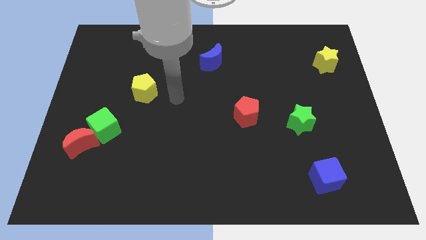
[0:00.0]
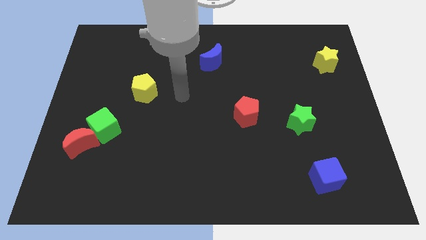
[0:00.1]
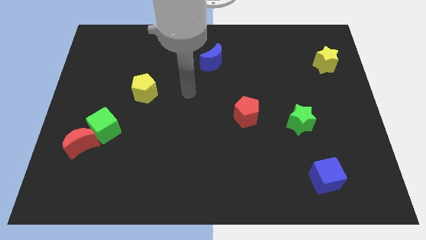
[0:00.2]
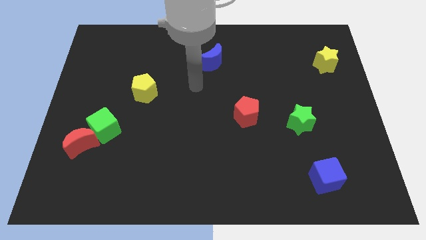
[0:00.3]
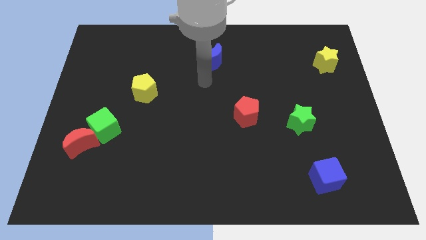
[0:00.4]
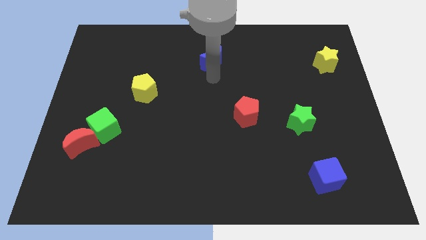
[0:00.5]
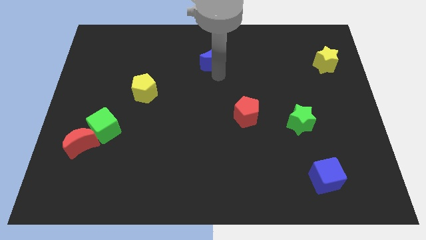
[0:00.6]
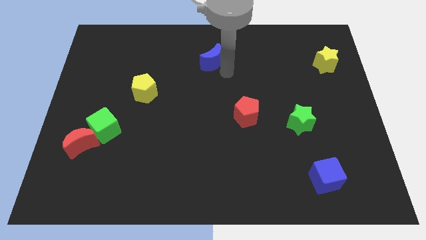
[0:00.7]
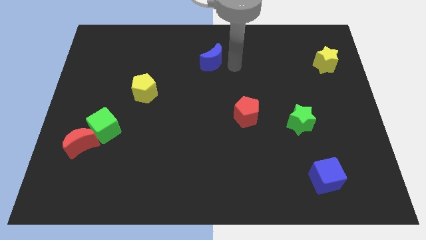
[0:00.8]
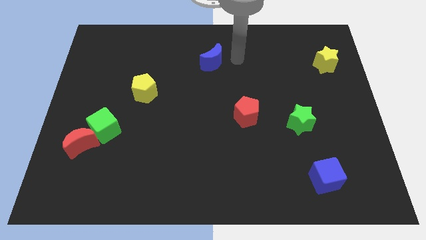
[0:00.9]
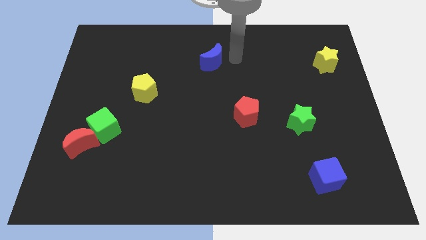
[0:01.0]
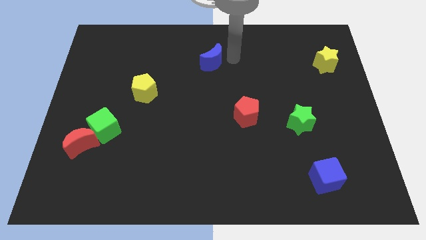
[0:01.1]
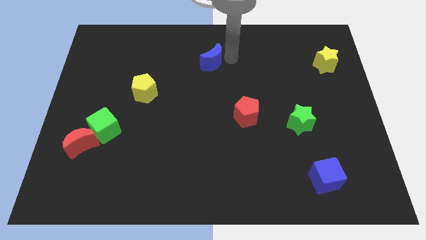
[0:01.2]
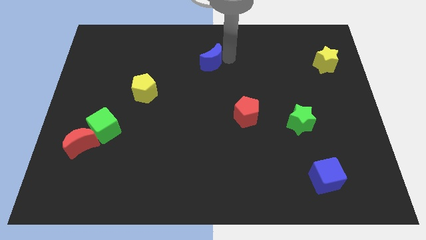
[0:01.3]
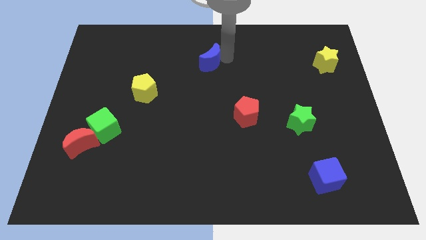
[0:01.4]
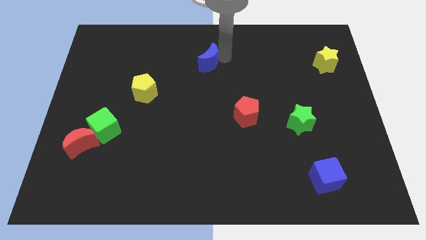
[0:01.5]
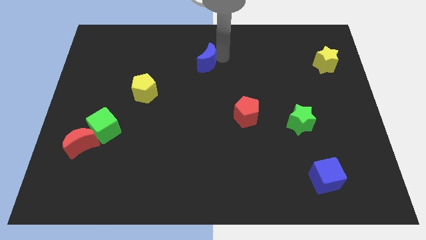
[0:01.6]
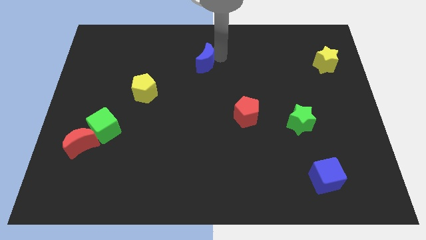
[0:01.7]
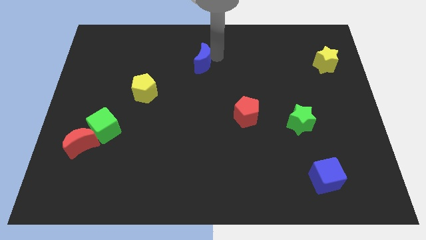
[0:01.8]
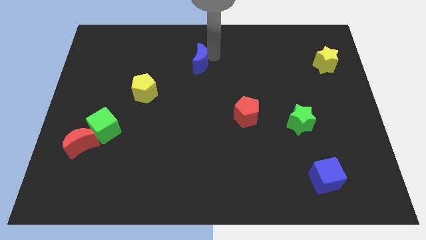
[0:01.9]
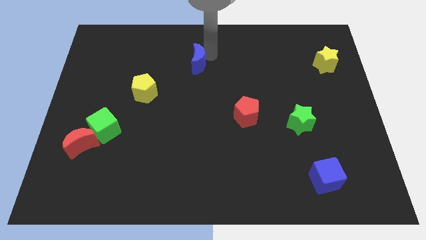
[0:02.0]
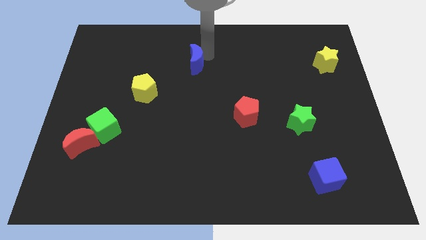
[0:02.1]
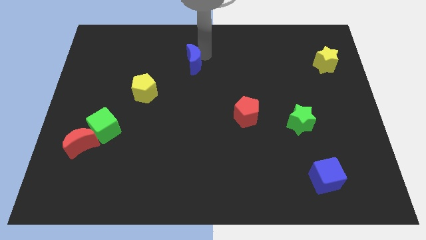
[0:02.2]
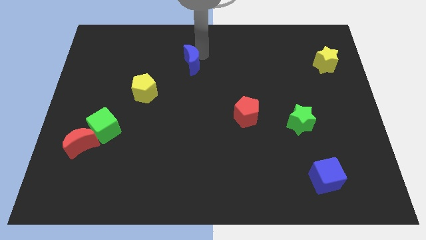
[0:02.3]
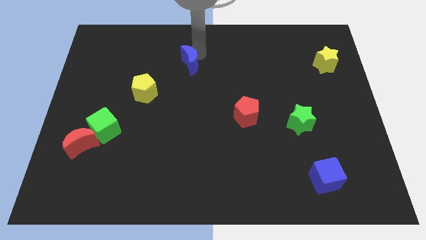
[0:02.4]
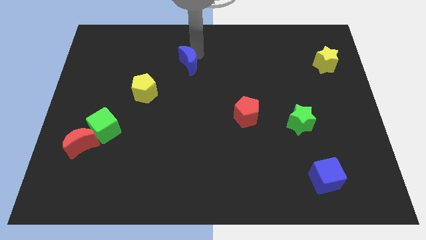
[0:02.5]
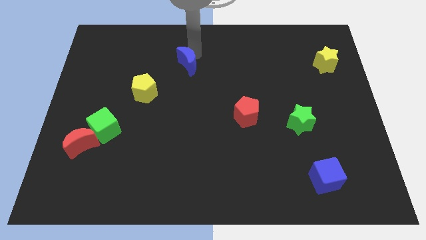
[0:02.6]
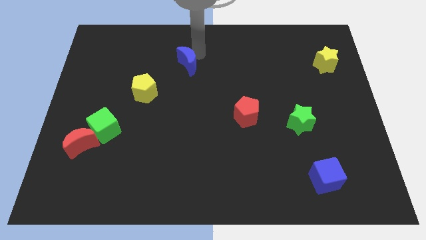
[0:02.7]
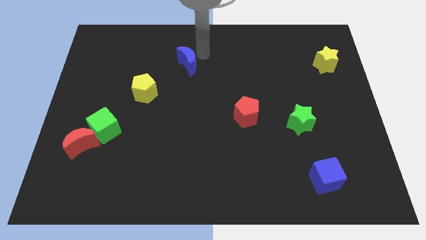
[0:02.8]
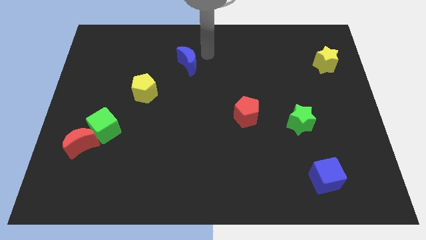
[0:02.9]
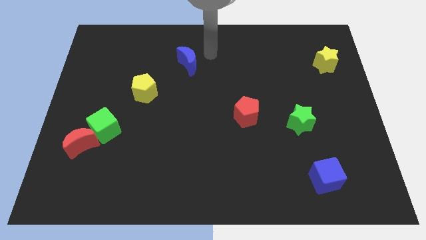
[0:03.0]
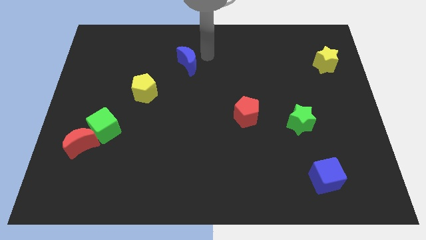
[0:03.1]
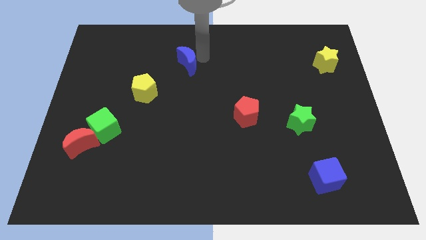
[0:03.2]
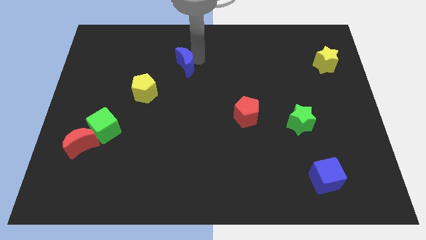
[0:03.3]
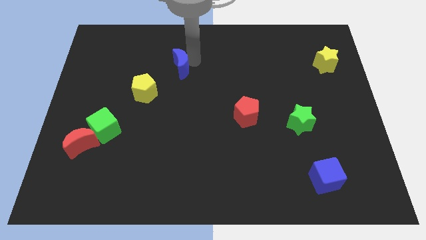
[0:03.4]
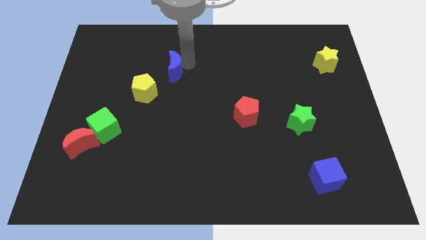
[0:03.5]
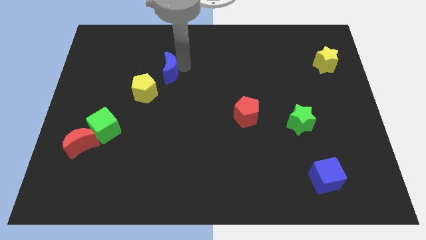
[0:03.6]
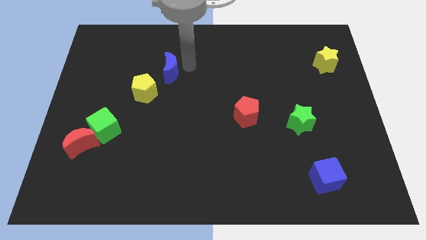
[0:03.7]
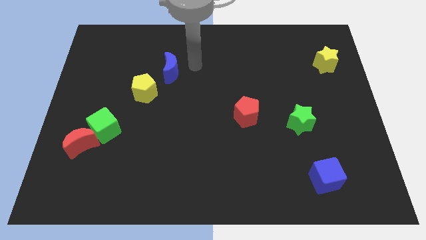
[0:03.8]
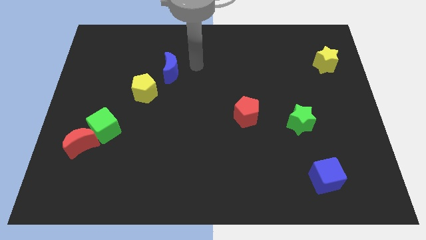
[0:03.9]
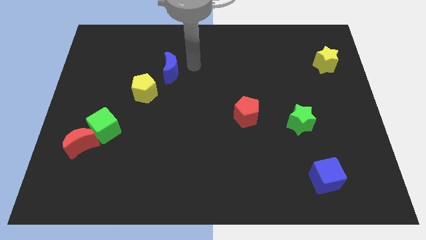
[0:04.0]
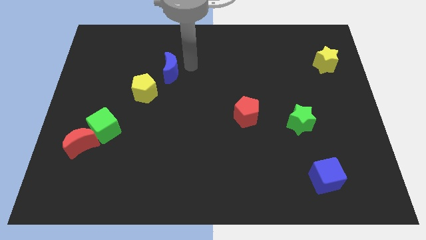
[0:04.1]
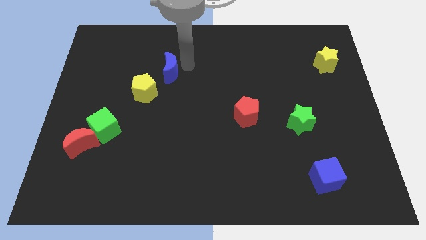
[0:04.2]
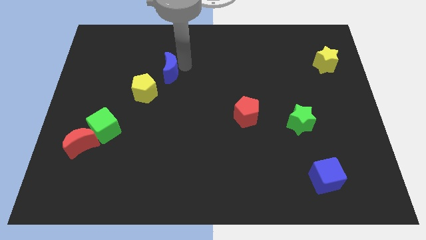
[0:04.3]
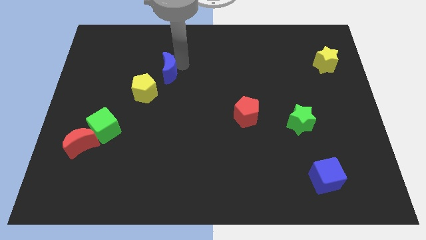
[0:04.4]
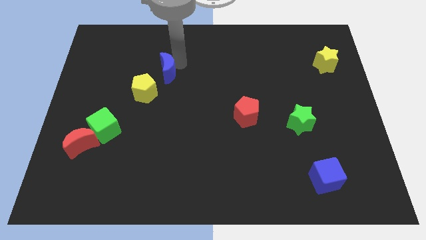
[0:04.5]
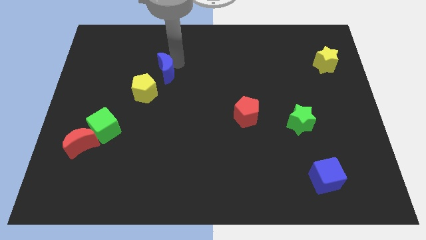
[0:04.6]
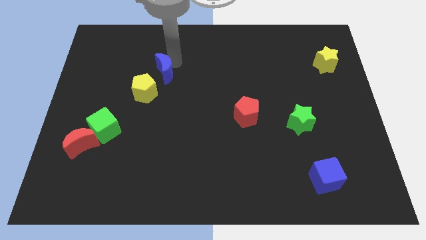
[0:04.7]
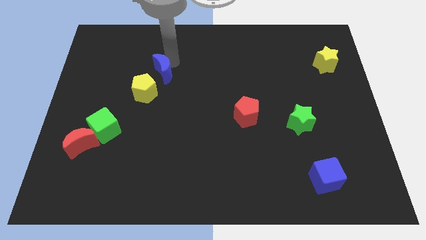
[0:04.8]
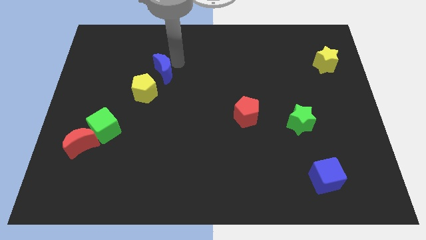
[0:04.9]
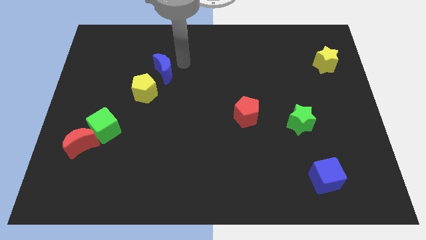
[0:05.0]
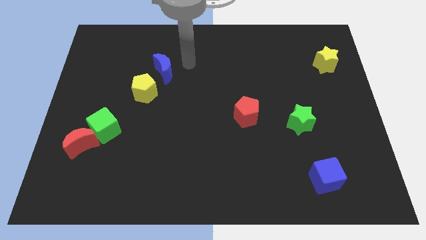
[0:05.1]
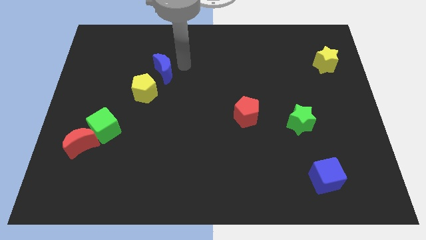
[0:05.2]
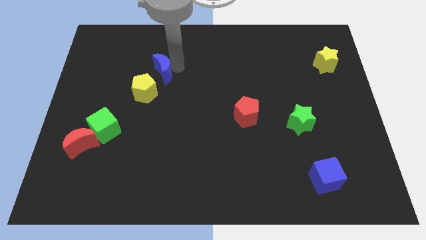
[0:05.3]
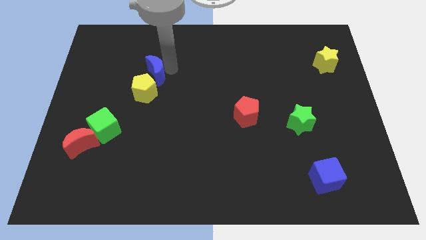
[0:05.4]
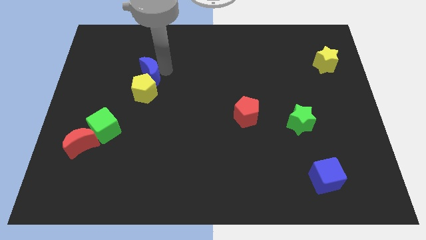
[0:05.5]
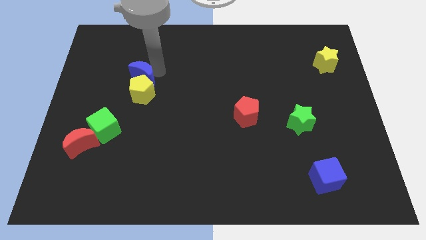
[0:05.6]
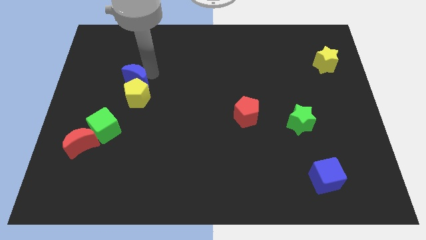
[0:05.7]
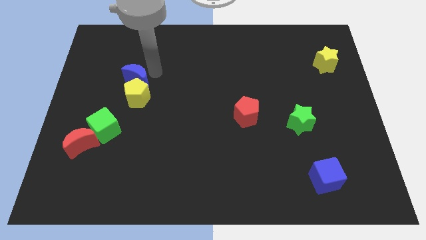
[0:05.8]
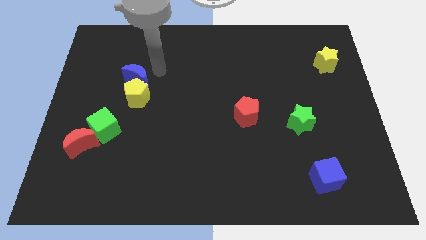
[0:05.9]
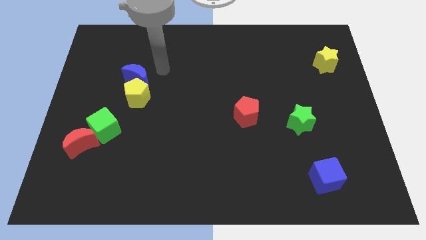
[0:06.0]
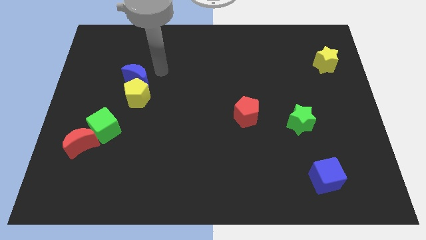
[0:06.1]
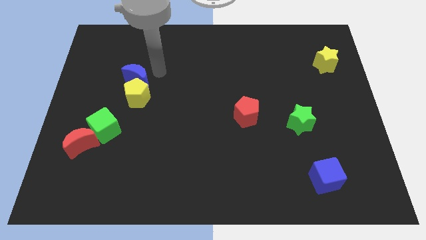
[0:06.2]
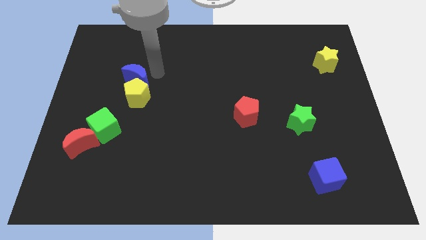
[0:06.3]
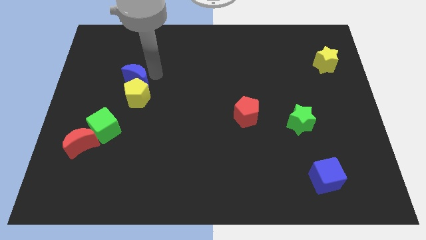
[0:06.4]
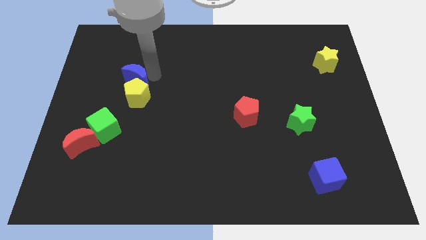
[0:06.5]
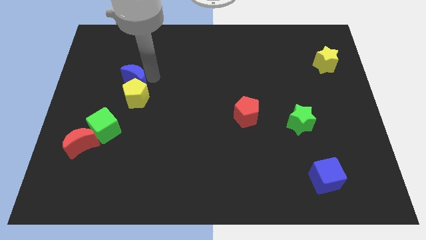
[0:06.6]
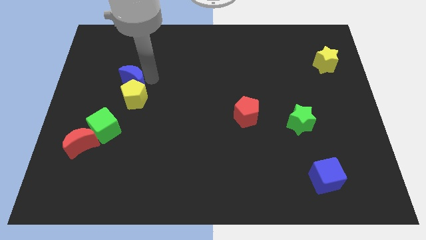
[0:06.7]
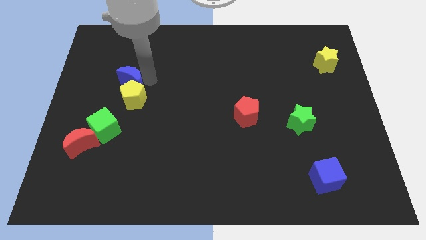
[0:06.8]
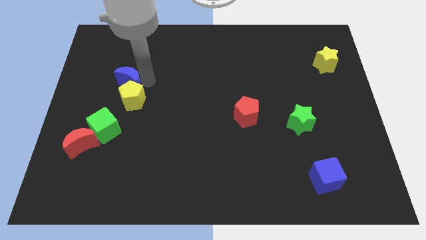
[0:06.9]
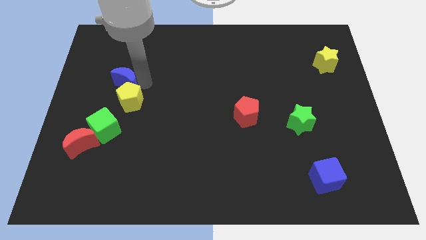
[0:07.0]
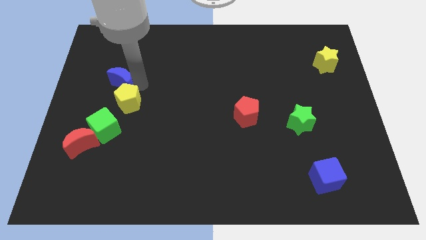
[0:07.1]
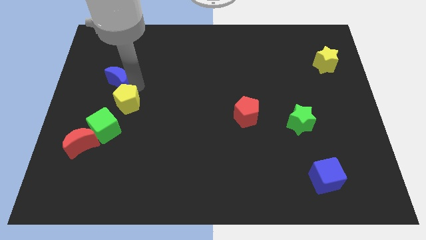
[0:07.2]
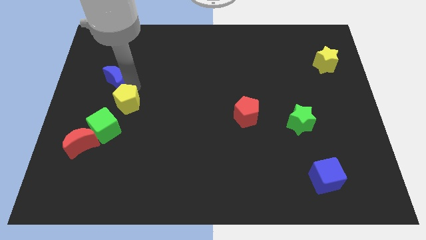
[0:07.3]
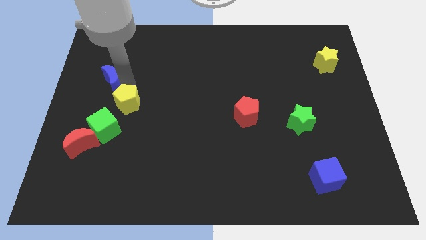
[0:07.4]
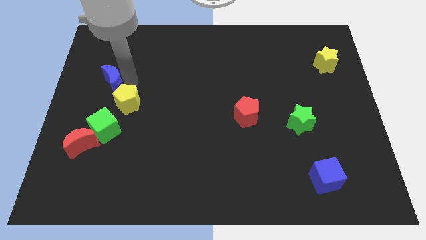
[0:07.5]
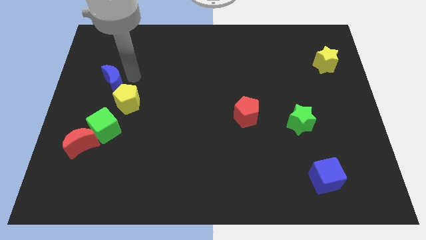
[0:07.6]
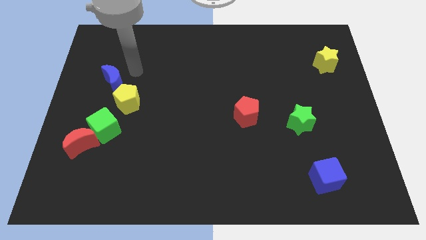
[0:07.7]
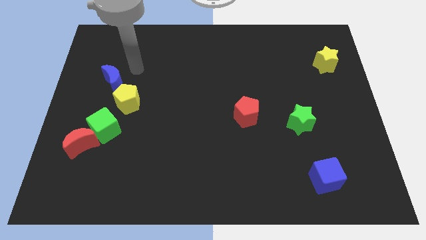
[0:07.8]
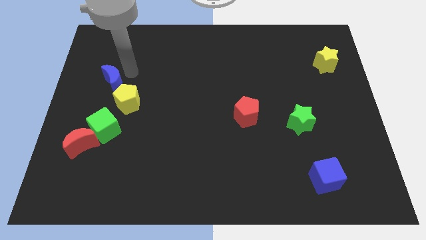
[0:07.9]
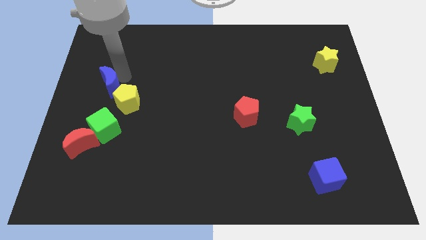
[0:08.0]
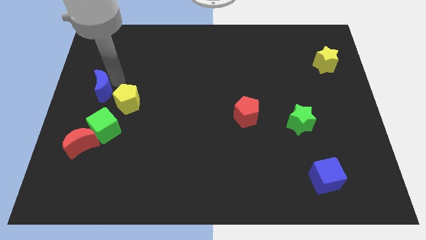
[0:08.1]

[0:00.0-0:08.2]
move the blue moon to the left of the yellow pentagon
